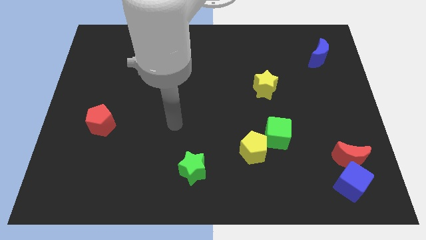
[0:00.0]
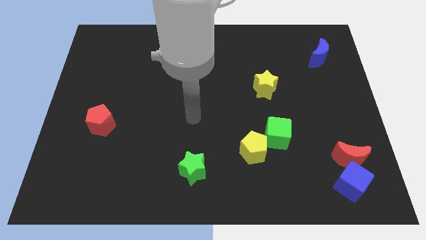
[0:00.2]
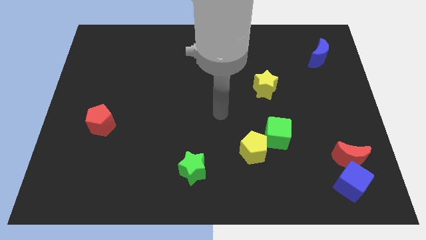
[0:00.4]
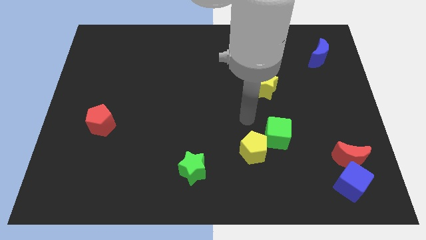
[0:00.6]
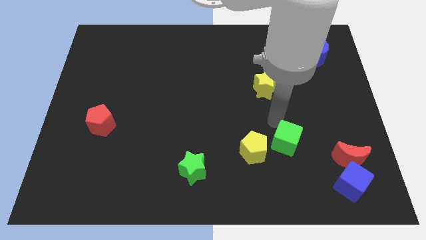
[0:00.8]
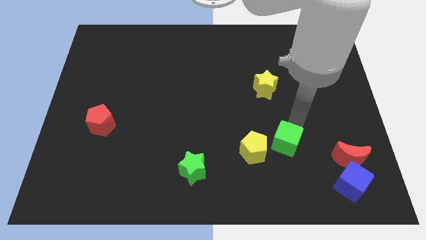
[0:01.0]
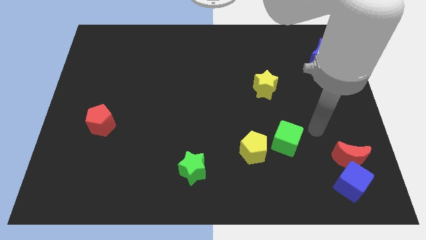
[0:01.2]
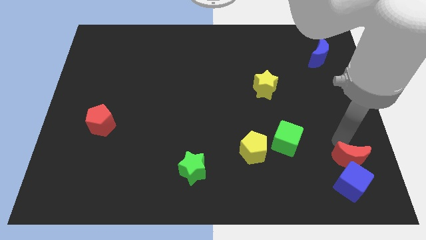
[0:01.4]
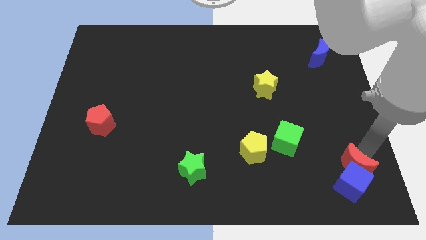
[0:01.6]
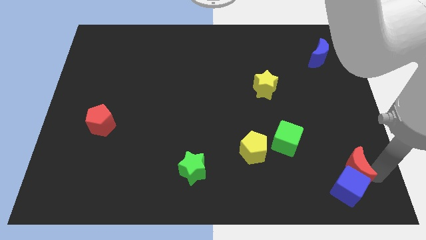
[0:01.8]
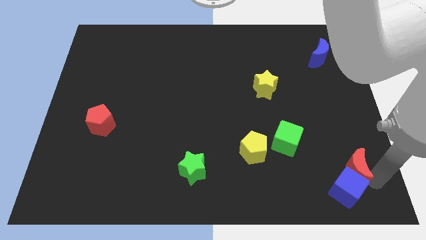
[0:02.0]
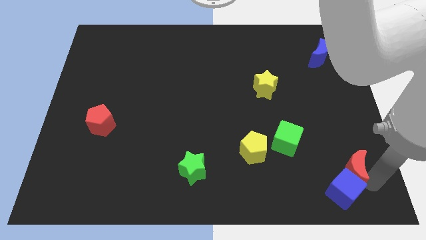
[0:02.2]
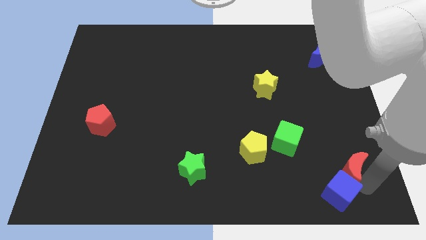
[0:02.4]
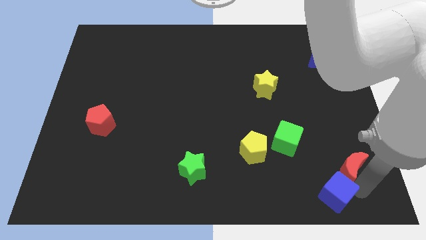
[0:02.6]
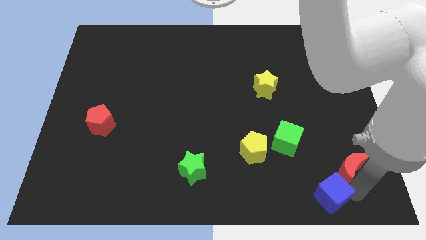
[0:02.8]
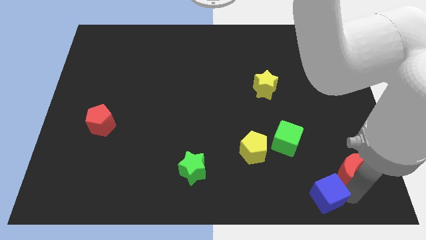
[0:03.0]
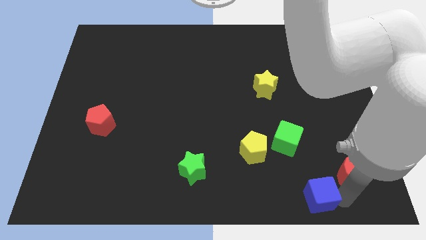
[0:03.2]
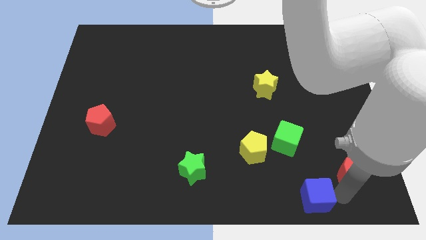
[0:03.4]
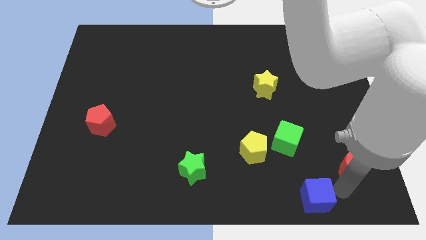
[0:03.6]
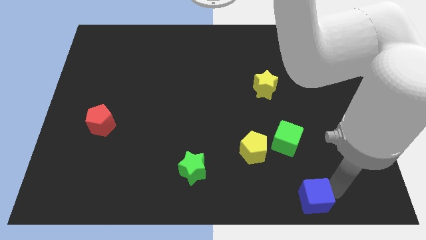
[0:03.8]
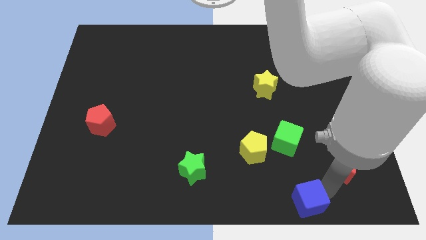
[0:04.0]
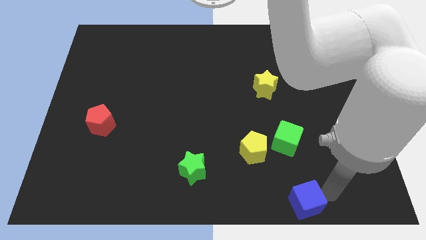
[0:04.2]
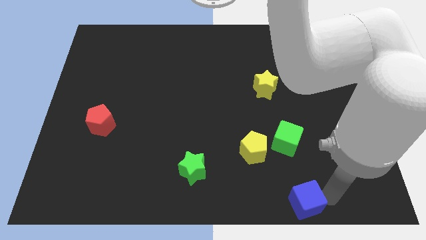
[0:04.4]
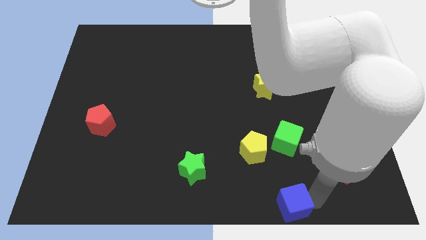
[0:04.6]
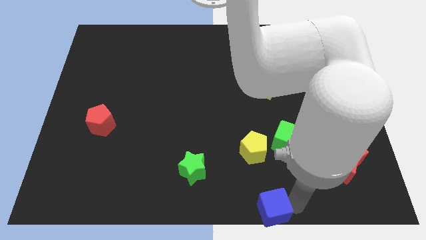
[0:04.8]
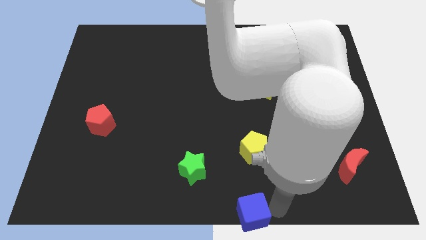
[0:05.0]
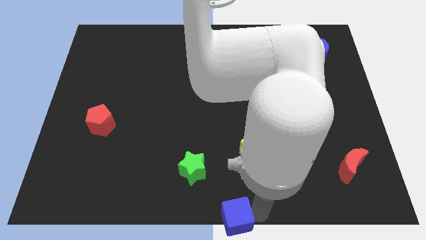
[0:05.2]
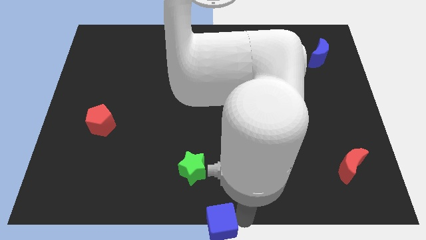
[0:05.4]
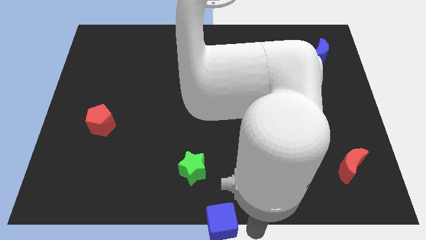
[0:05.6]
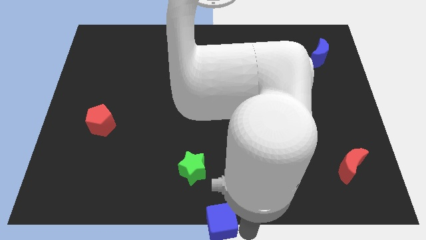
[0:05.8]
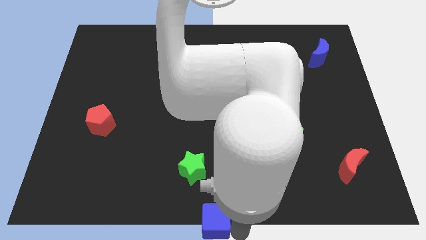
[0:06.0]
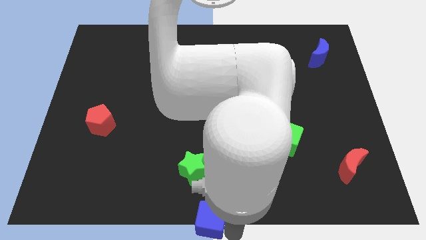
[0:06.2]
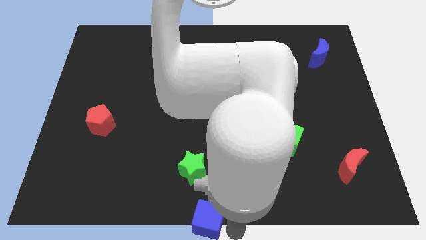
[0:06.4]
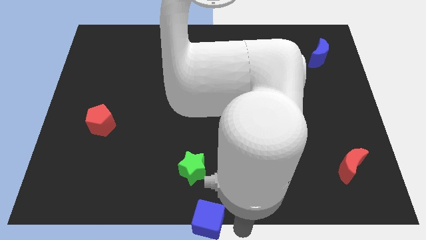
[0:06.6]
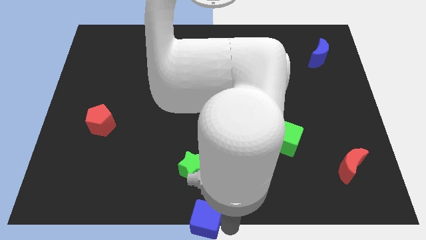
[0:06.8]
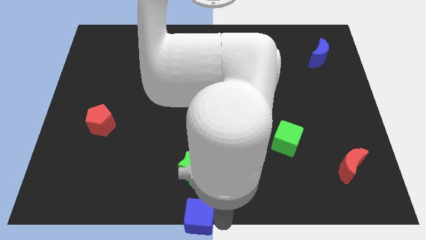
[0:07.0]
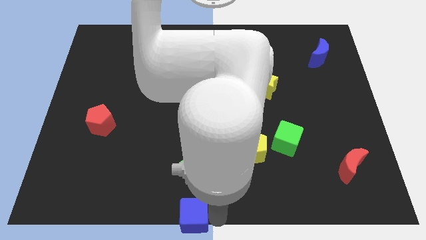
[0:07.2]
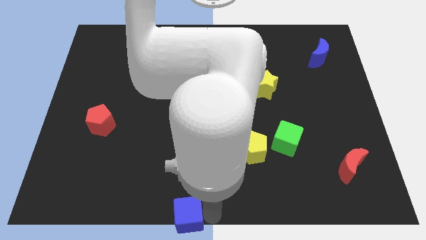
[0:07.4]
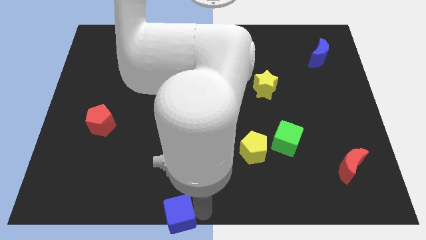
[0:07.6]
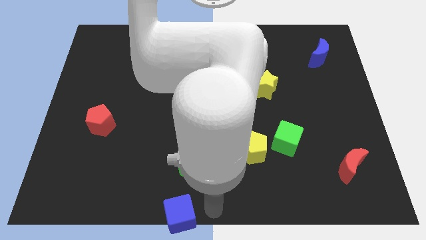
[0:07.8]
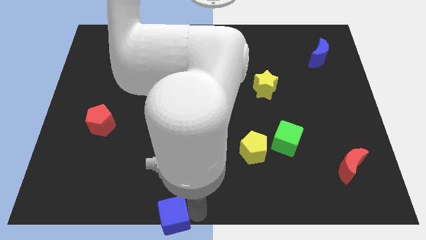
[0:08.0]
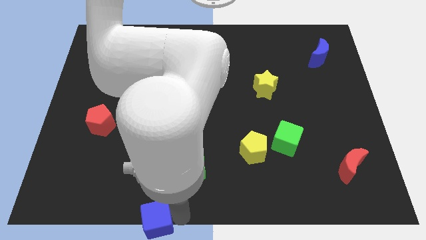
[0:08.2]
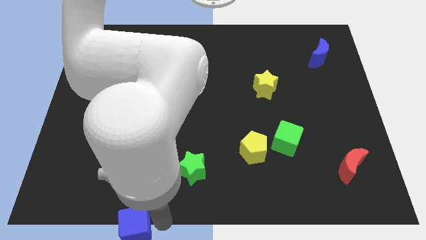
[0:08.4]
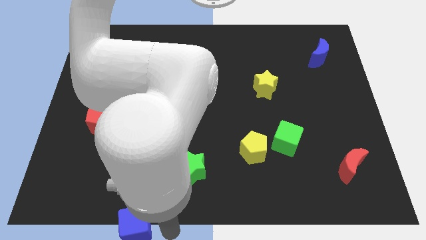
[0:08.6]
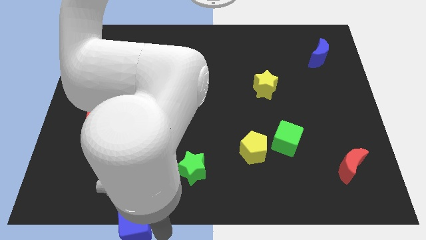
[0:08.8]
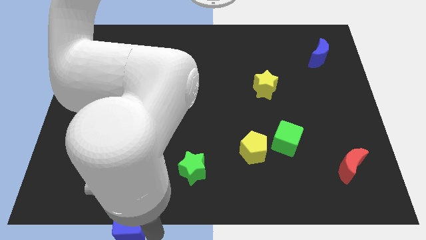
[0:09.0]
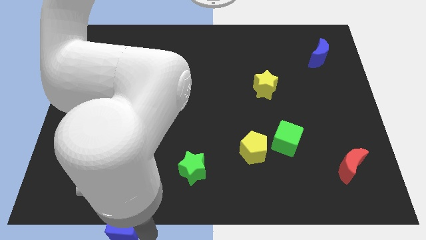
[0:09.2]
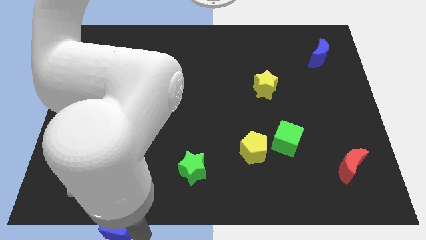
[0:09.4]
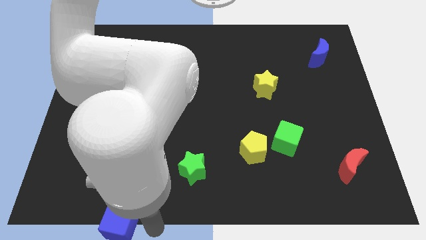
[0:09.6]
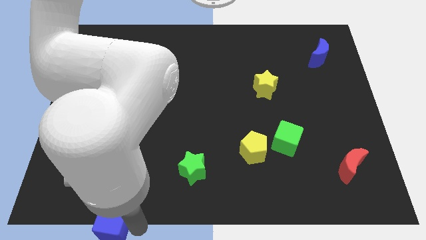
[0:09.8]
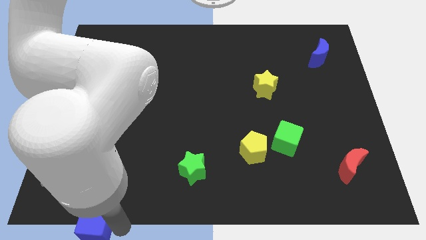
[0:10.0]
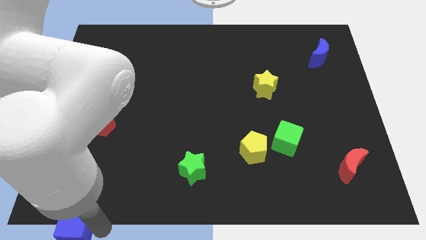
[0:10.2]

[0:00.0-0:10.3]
slide the blue cube to the lower left corner

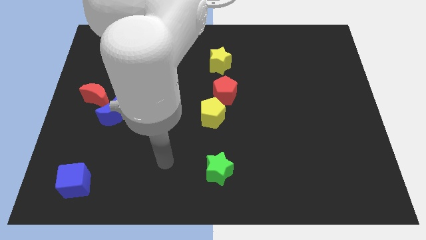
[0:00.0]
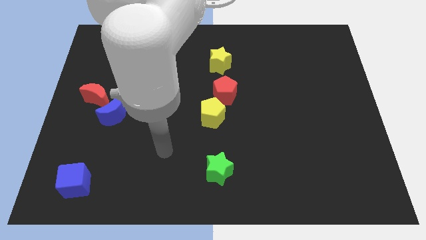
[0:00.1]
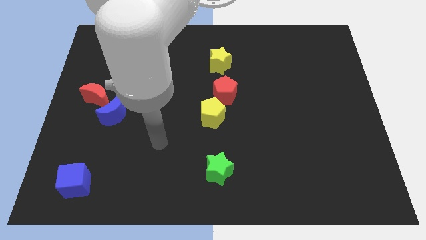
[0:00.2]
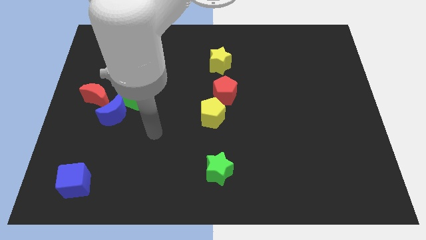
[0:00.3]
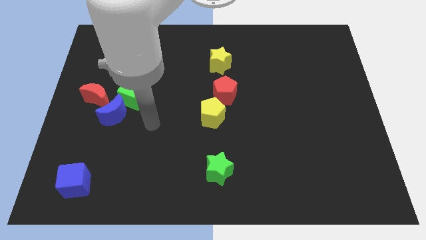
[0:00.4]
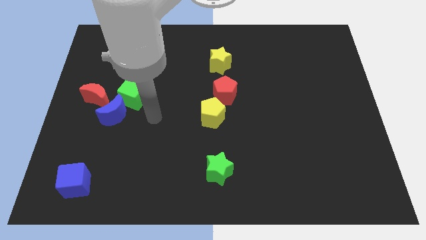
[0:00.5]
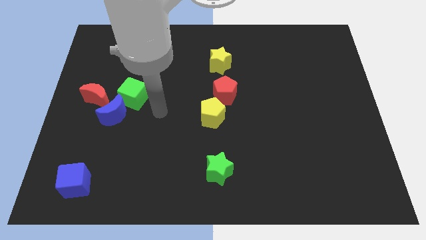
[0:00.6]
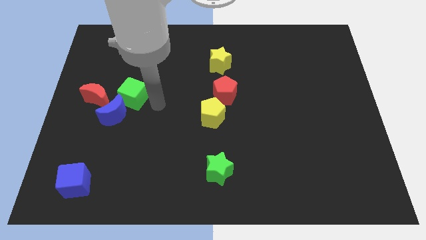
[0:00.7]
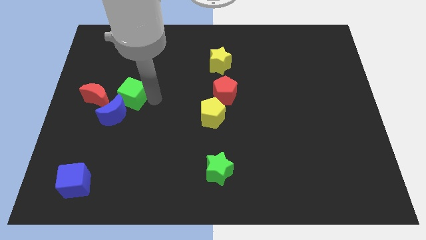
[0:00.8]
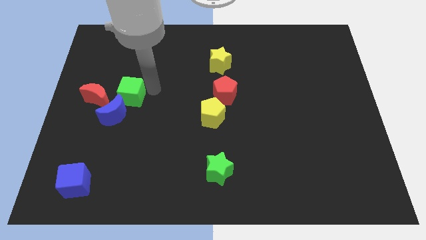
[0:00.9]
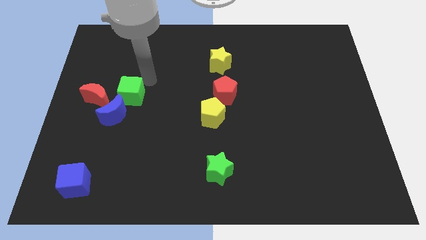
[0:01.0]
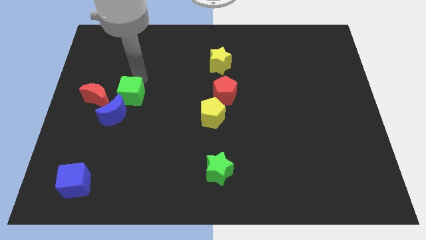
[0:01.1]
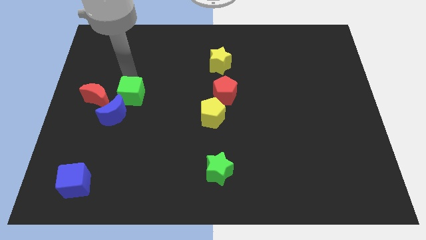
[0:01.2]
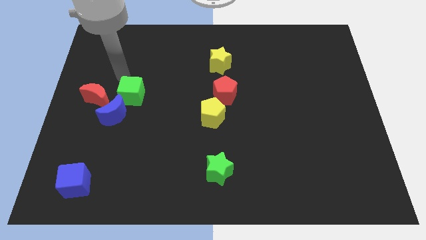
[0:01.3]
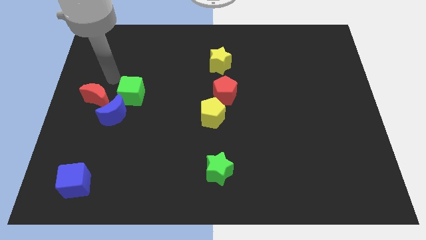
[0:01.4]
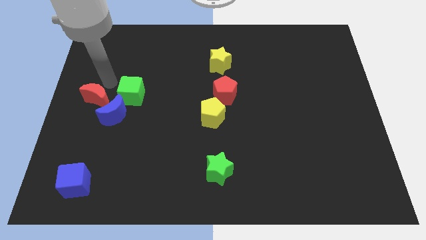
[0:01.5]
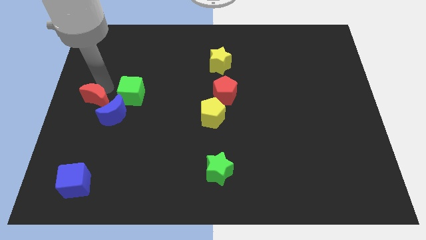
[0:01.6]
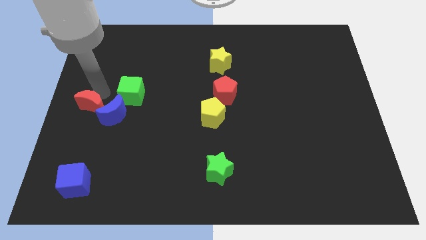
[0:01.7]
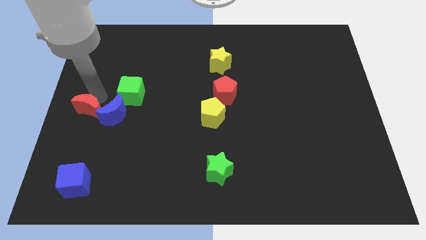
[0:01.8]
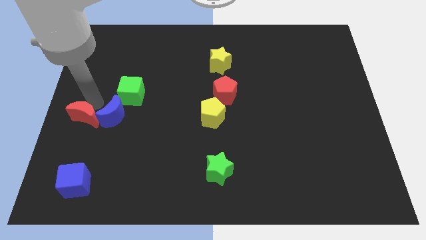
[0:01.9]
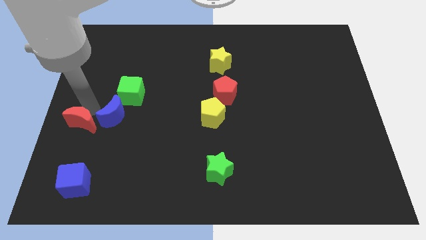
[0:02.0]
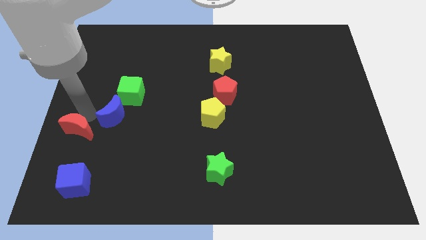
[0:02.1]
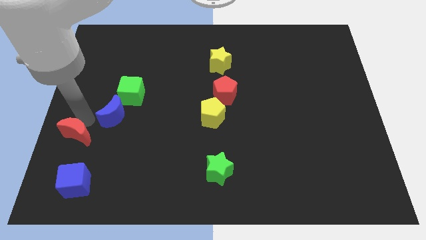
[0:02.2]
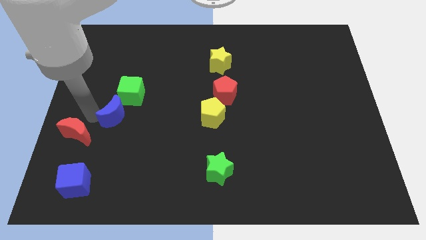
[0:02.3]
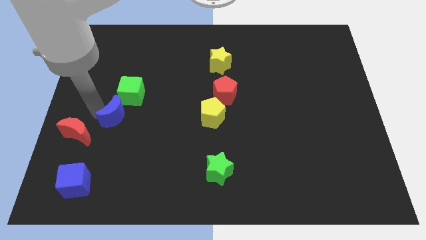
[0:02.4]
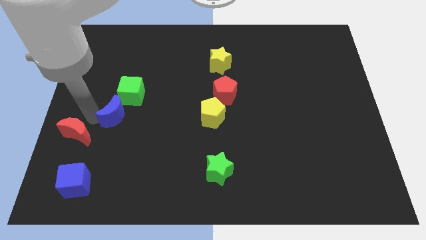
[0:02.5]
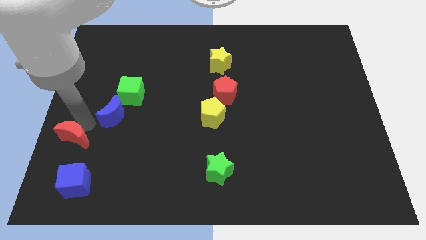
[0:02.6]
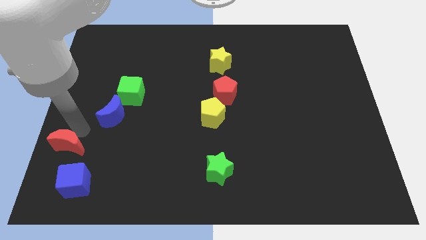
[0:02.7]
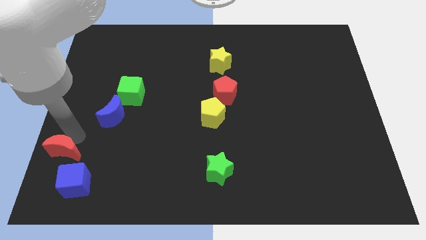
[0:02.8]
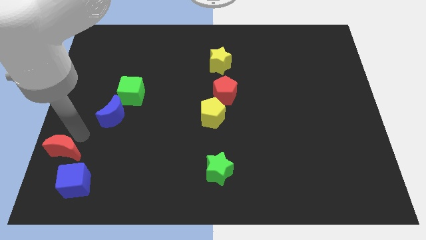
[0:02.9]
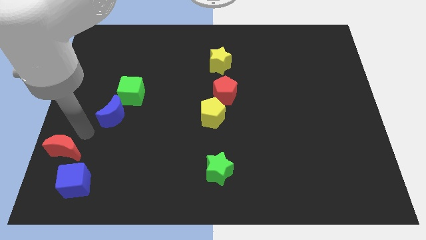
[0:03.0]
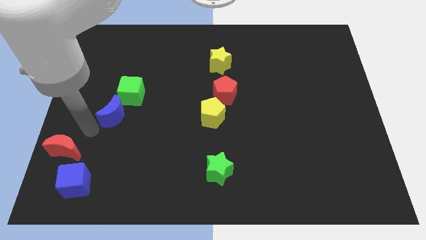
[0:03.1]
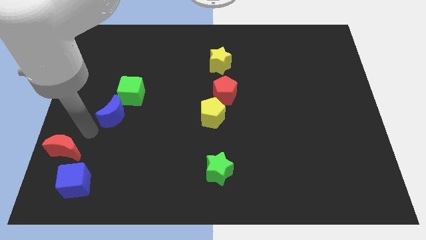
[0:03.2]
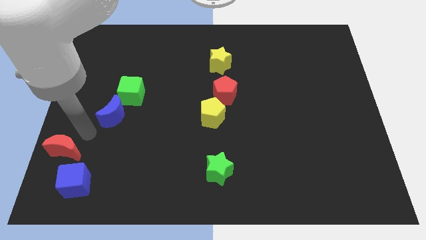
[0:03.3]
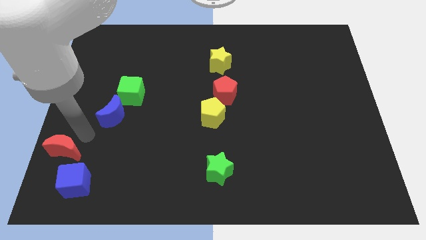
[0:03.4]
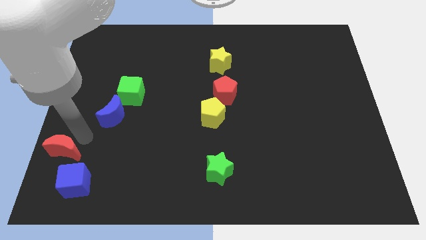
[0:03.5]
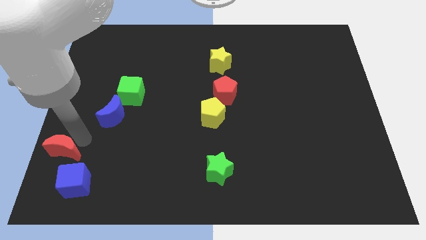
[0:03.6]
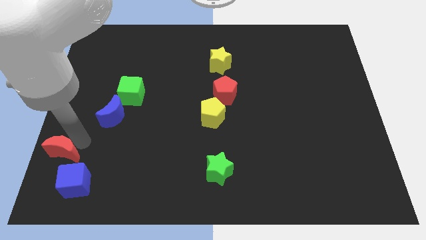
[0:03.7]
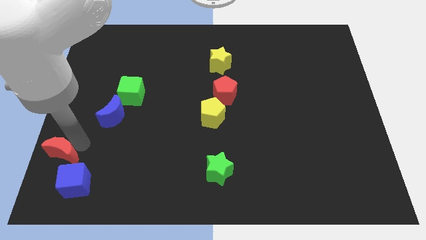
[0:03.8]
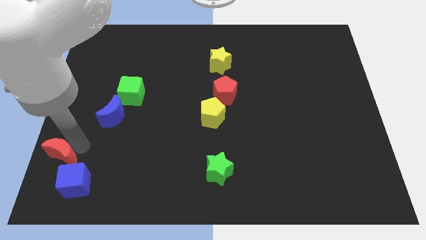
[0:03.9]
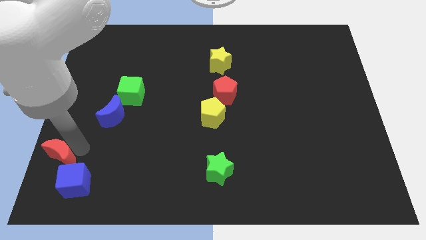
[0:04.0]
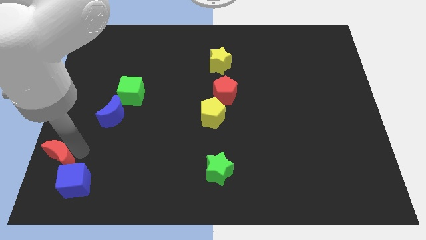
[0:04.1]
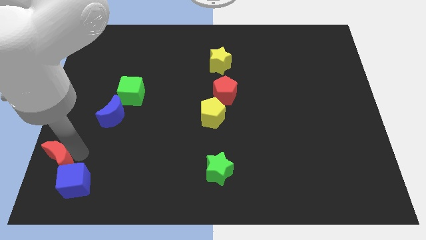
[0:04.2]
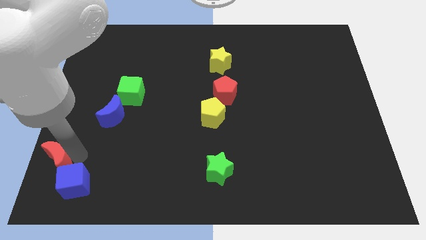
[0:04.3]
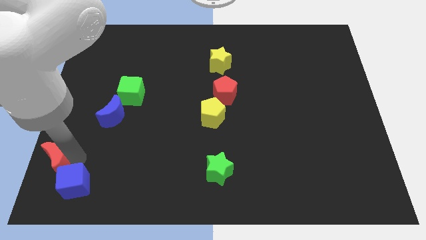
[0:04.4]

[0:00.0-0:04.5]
put the red moon to the lower left corner
